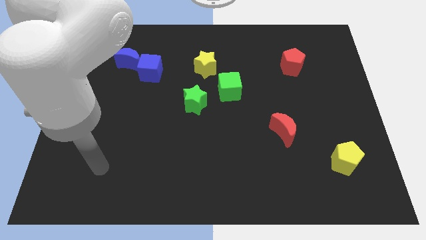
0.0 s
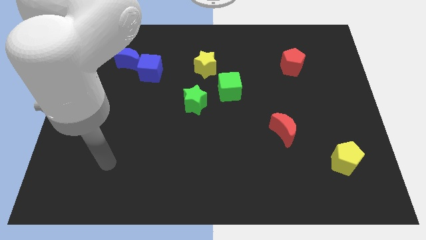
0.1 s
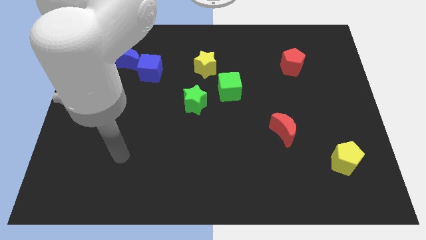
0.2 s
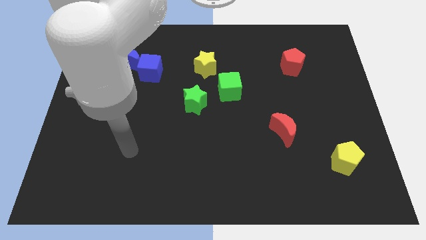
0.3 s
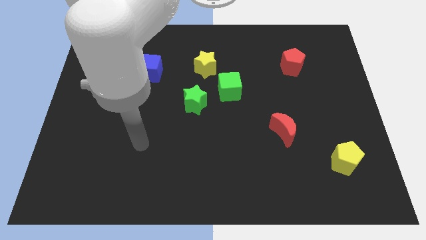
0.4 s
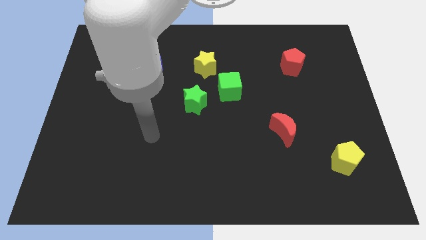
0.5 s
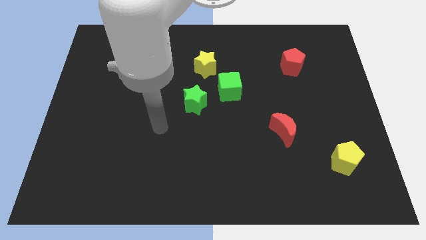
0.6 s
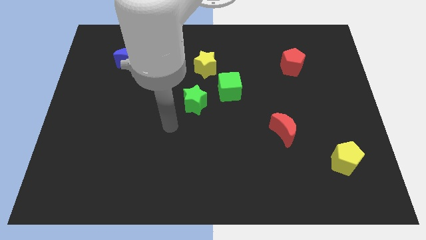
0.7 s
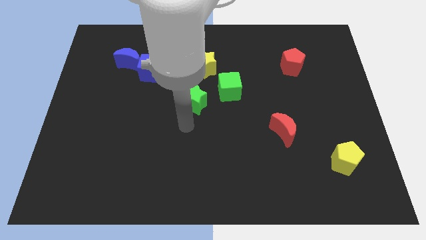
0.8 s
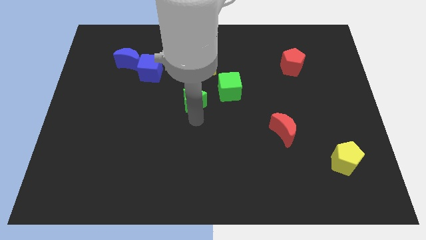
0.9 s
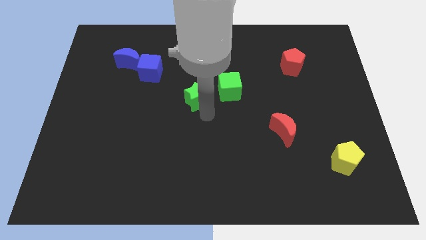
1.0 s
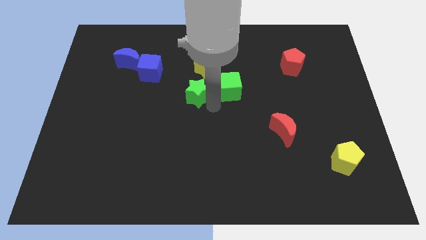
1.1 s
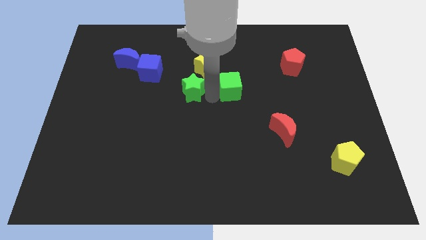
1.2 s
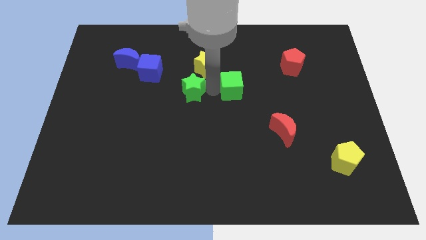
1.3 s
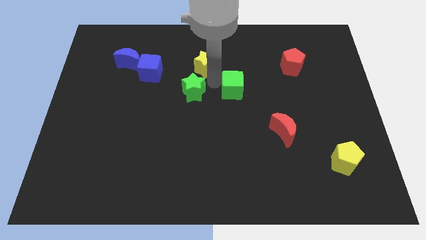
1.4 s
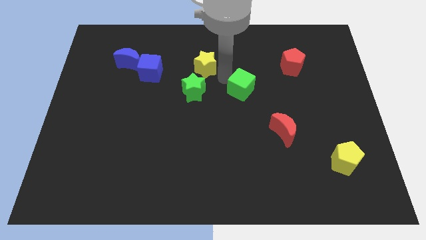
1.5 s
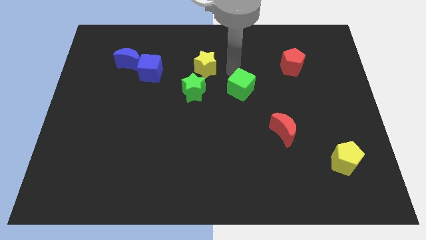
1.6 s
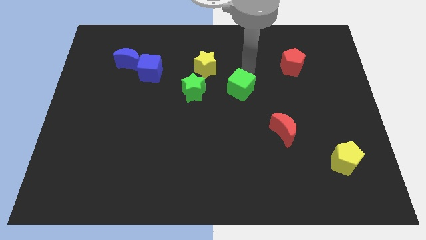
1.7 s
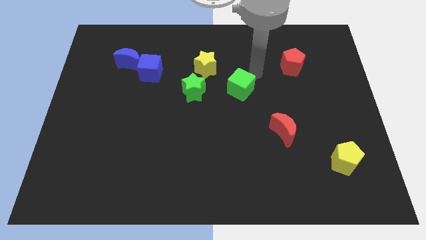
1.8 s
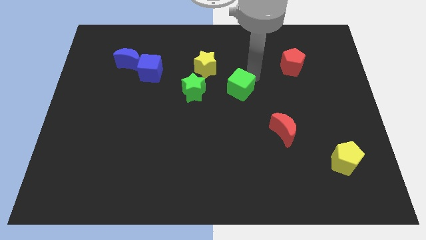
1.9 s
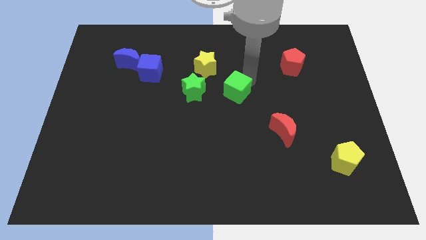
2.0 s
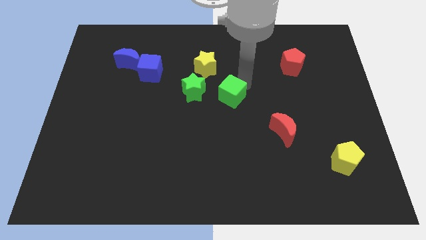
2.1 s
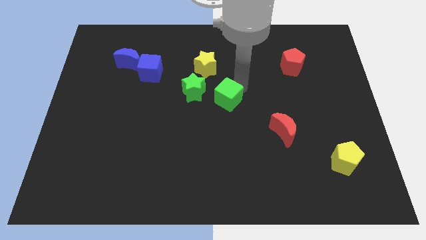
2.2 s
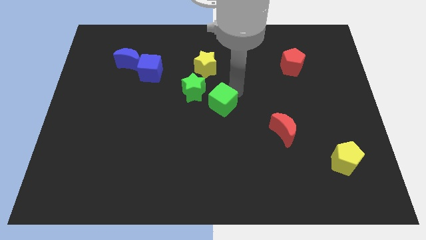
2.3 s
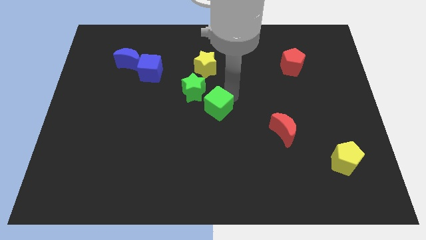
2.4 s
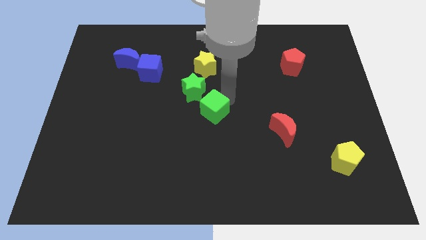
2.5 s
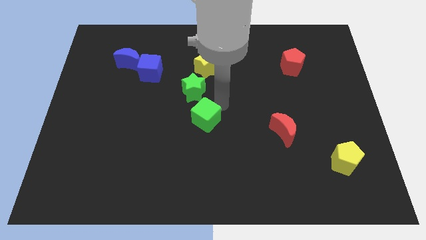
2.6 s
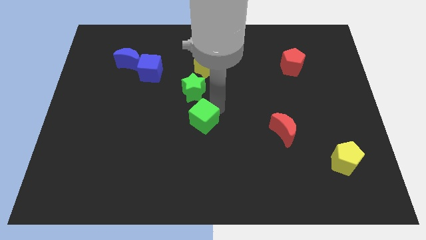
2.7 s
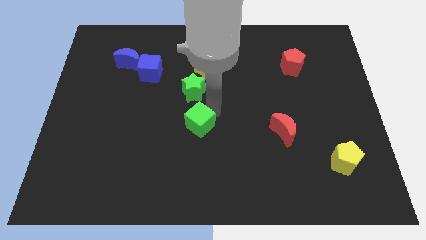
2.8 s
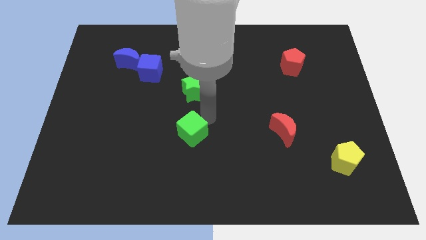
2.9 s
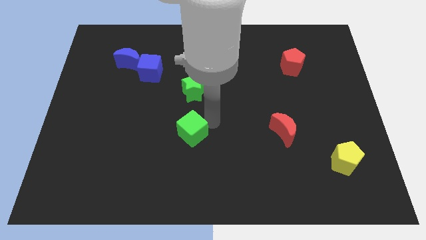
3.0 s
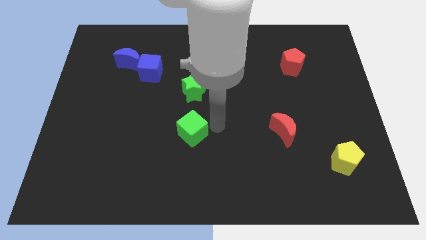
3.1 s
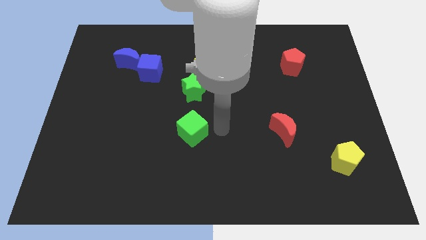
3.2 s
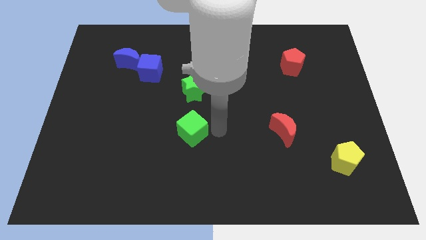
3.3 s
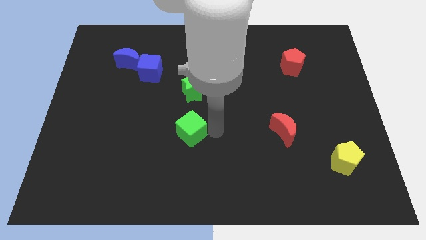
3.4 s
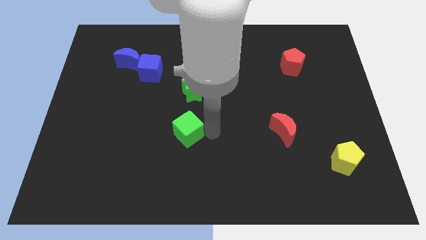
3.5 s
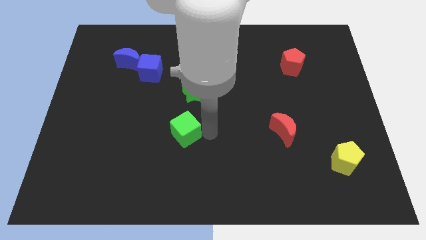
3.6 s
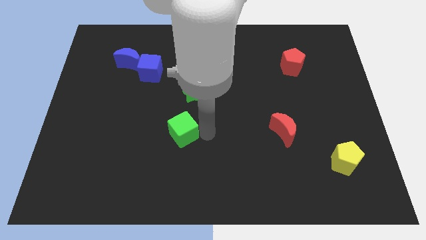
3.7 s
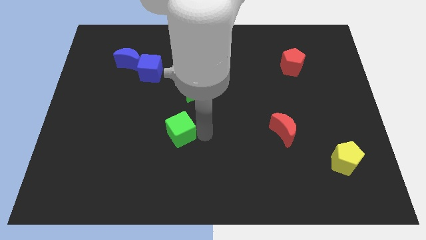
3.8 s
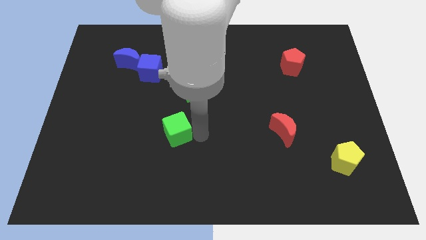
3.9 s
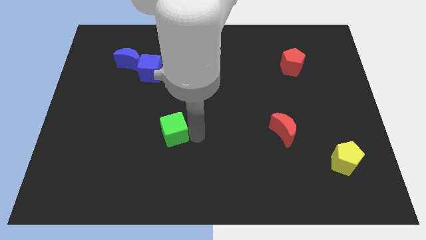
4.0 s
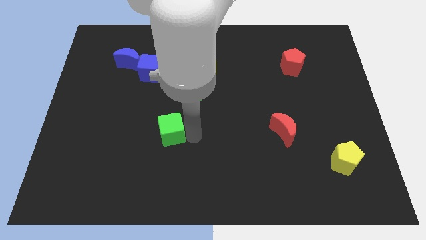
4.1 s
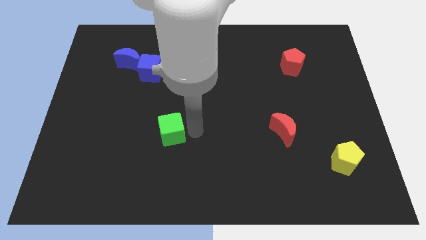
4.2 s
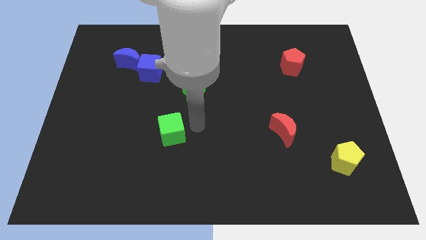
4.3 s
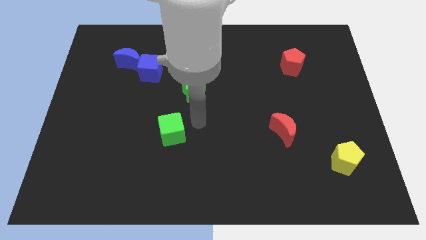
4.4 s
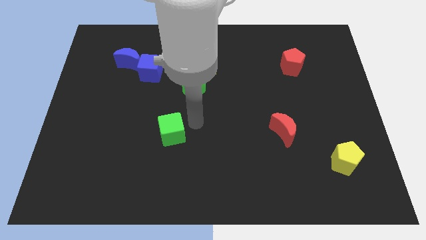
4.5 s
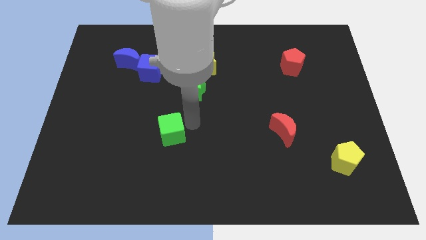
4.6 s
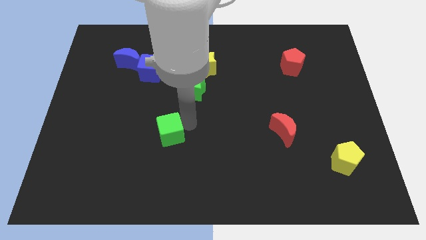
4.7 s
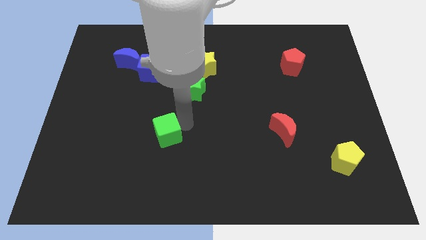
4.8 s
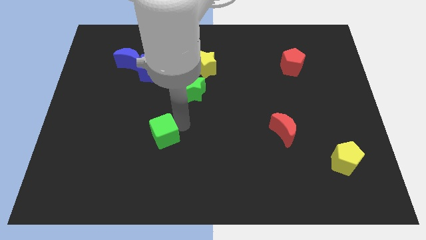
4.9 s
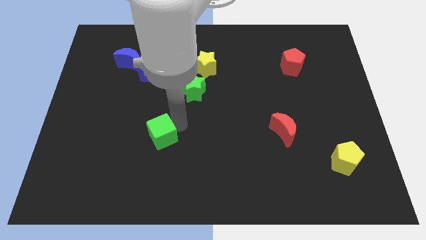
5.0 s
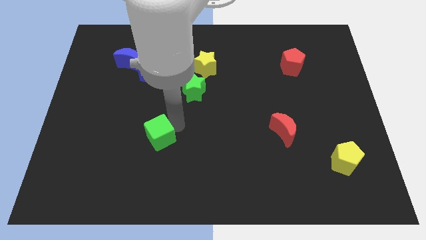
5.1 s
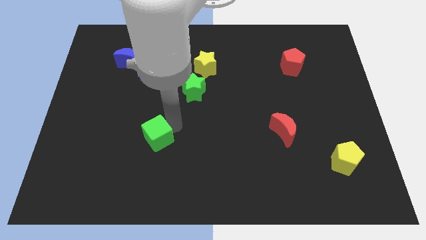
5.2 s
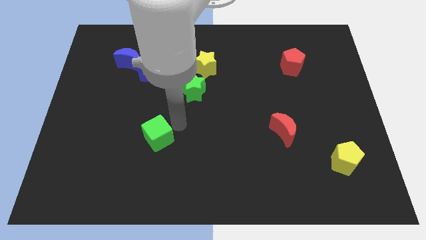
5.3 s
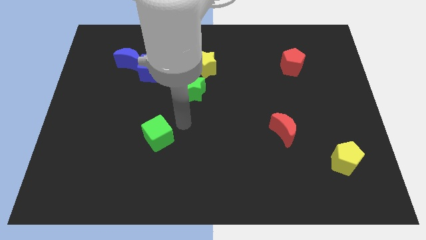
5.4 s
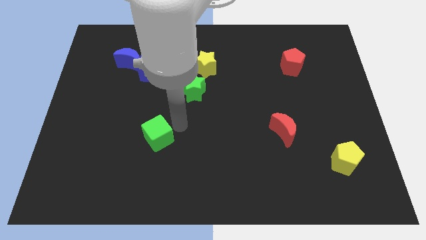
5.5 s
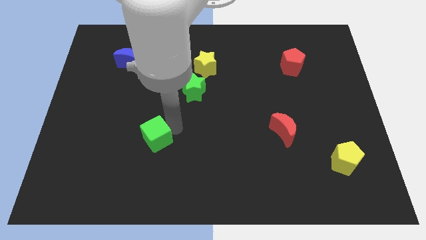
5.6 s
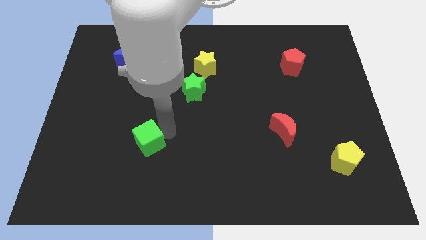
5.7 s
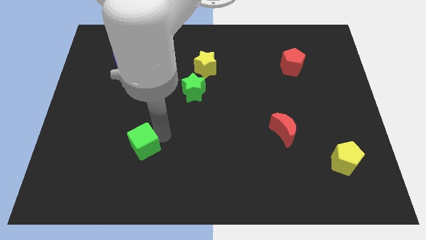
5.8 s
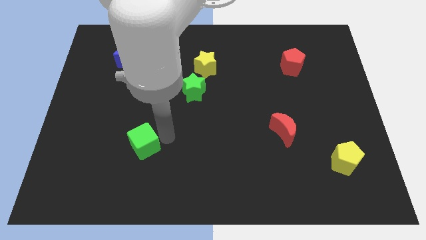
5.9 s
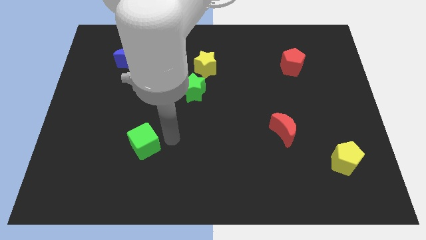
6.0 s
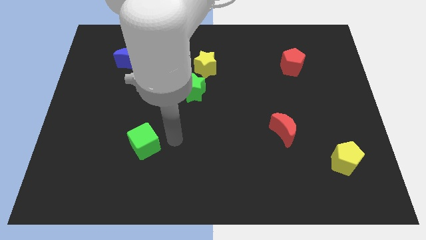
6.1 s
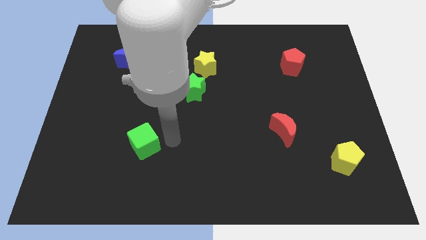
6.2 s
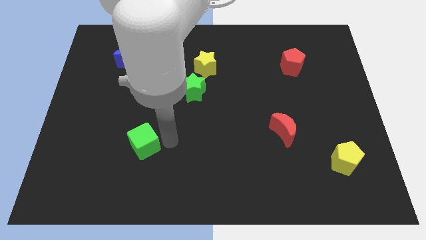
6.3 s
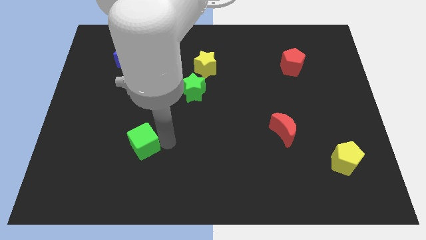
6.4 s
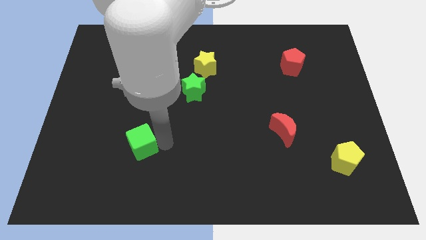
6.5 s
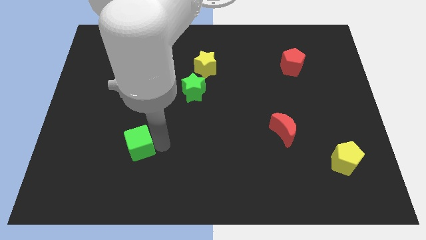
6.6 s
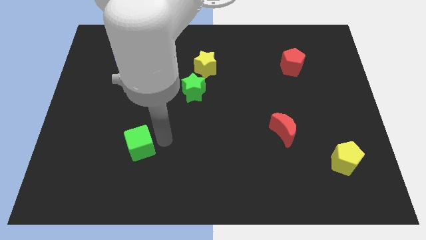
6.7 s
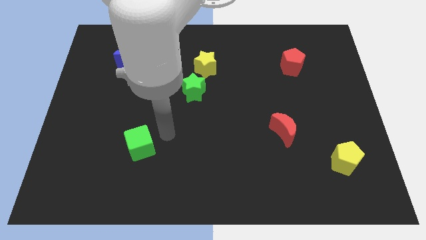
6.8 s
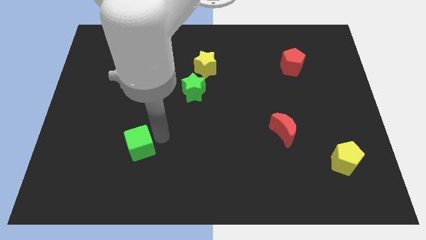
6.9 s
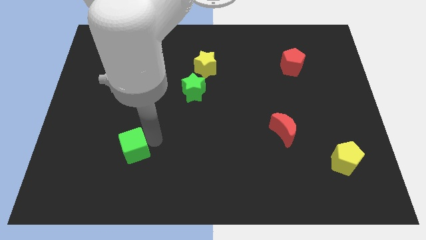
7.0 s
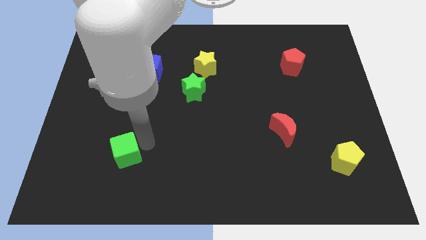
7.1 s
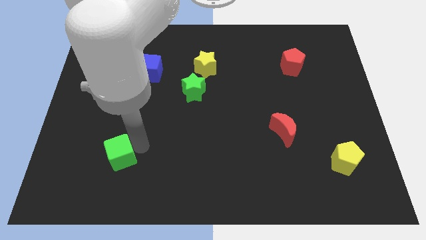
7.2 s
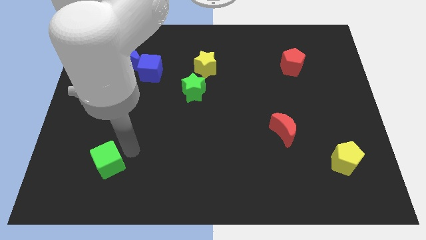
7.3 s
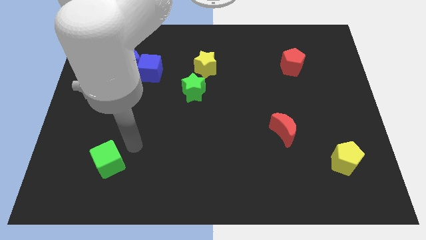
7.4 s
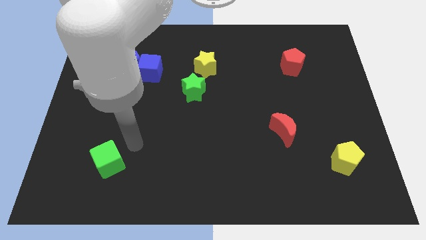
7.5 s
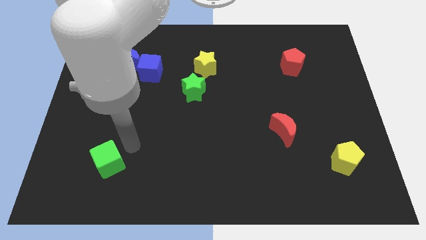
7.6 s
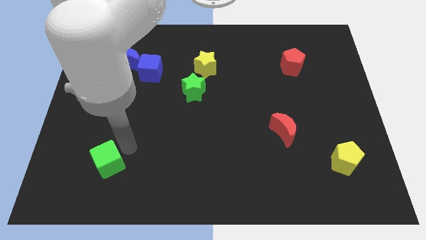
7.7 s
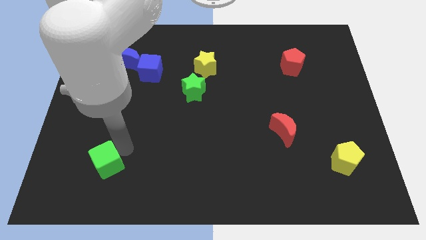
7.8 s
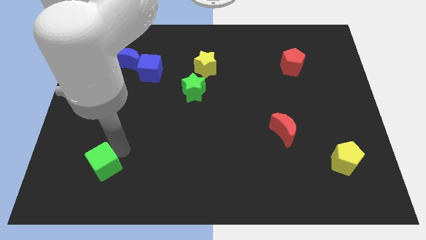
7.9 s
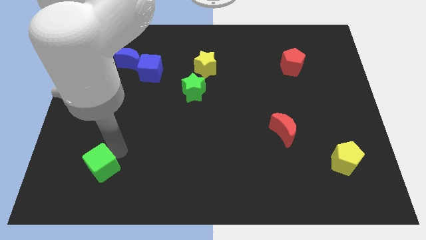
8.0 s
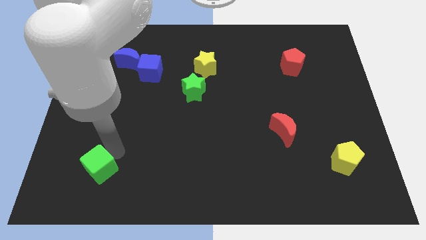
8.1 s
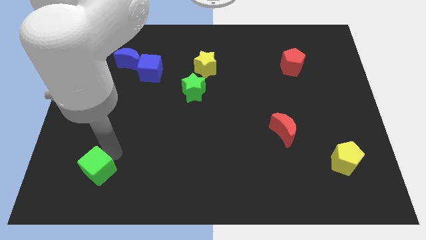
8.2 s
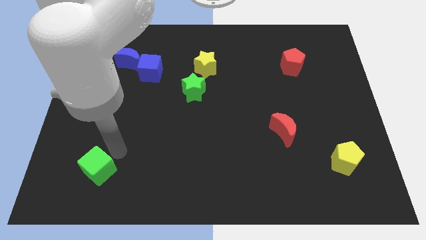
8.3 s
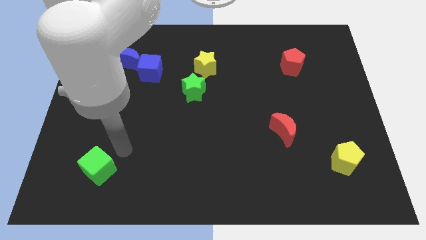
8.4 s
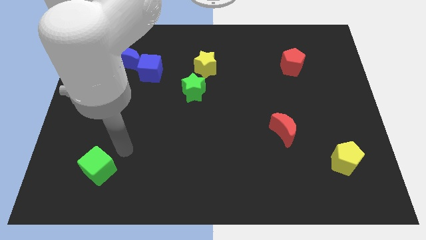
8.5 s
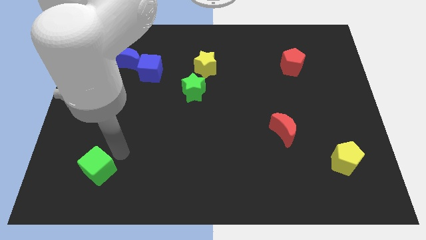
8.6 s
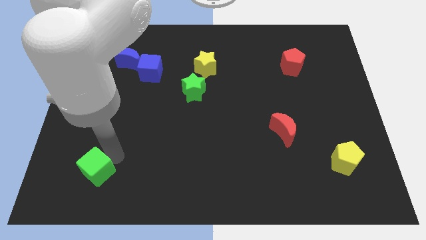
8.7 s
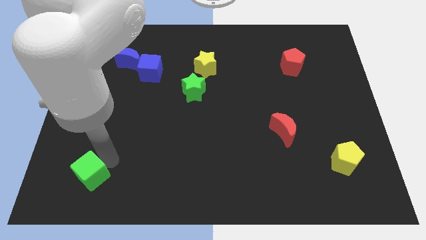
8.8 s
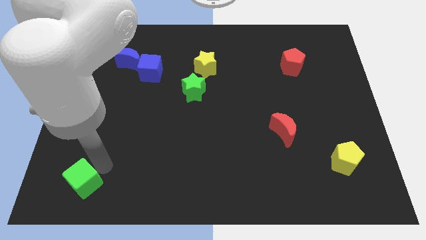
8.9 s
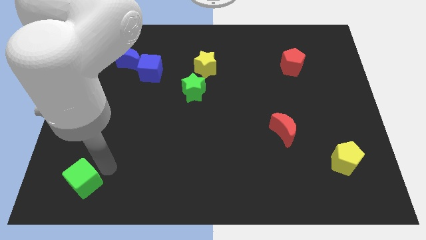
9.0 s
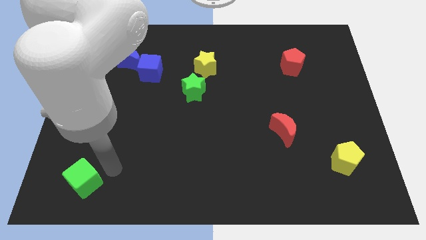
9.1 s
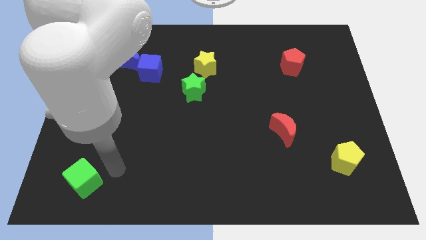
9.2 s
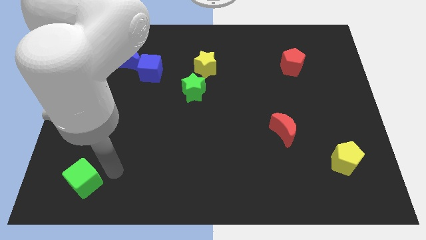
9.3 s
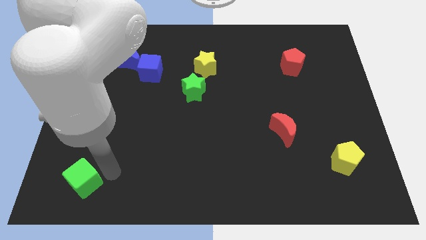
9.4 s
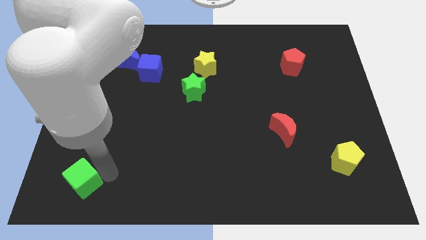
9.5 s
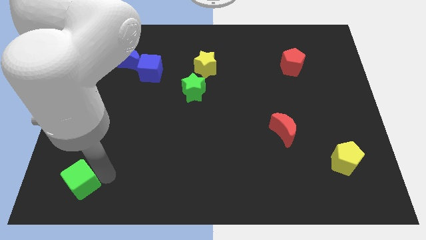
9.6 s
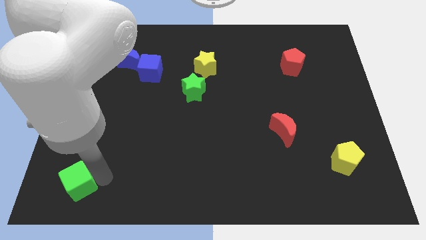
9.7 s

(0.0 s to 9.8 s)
move the green cube to the bottom left
